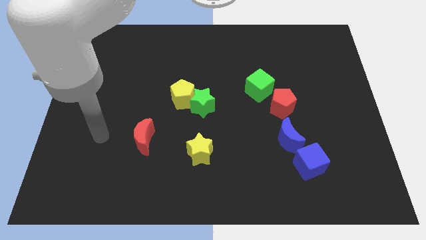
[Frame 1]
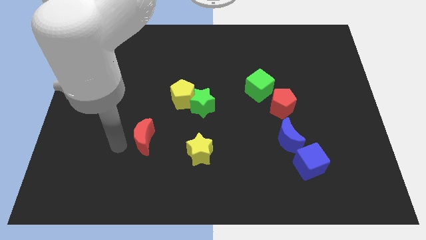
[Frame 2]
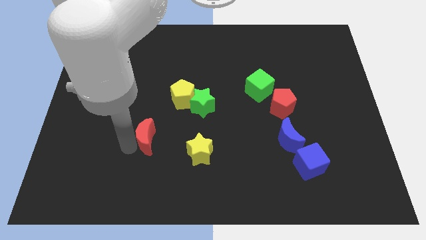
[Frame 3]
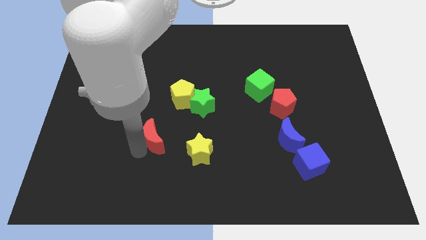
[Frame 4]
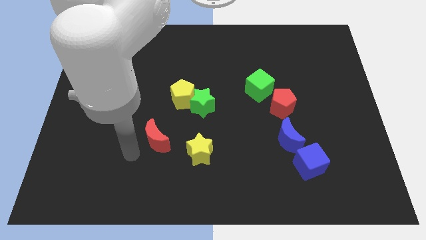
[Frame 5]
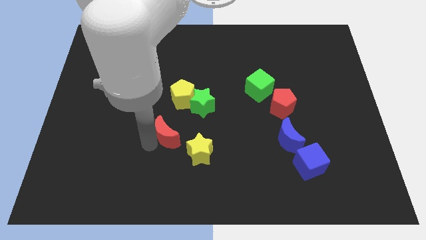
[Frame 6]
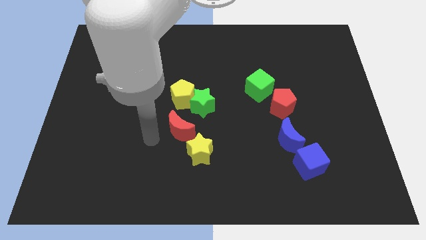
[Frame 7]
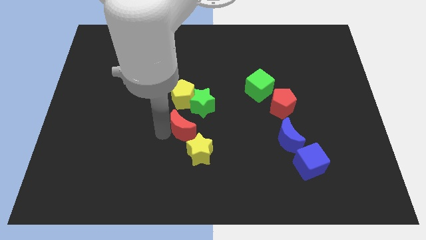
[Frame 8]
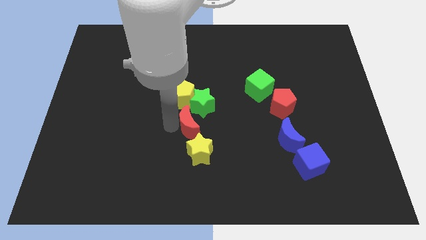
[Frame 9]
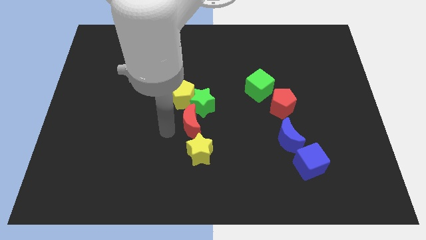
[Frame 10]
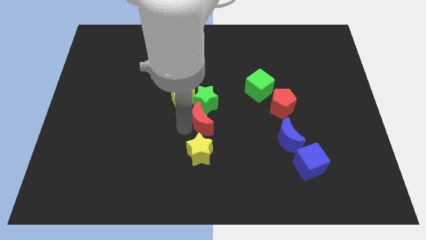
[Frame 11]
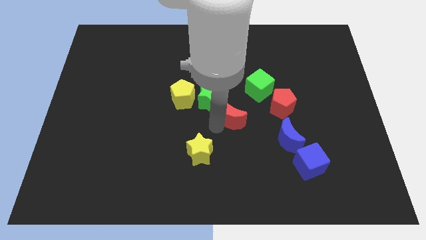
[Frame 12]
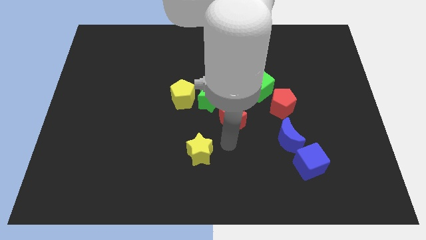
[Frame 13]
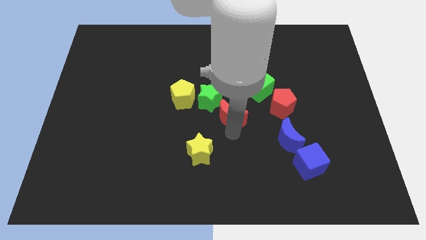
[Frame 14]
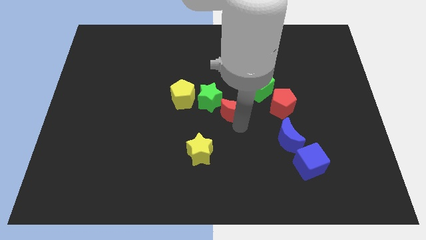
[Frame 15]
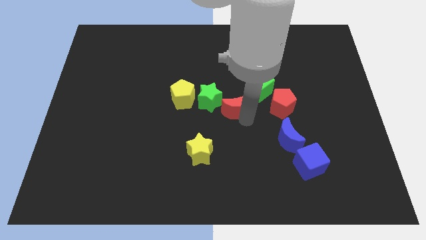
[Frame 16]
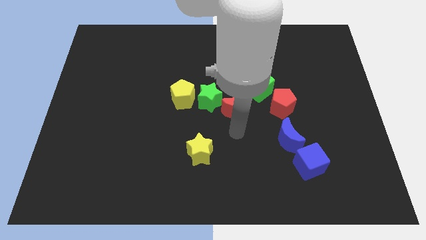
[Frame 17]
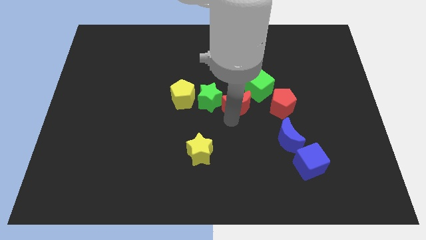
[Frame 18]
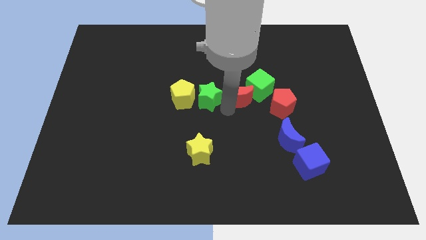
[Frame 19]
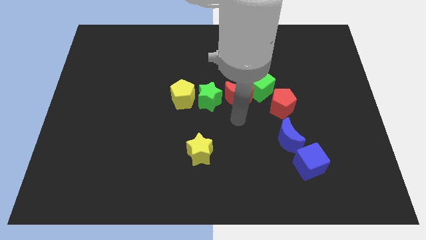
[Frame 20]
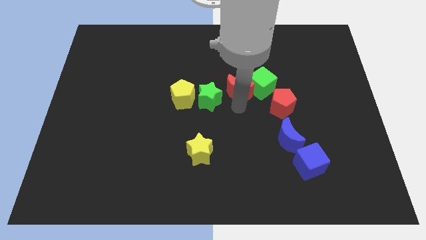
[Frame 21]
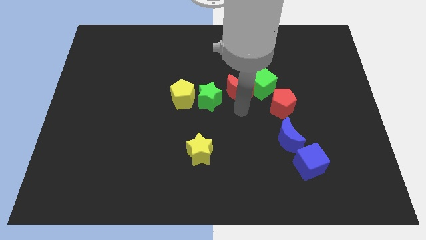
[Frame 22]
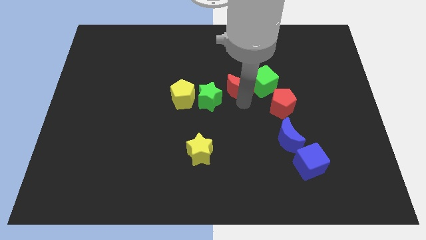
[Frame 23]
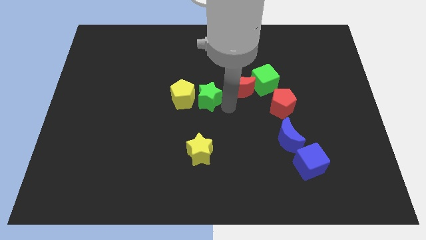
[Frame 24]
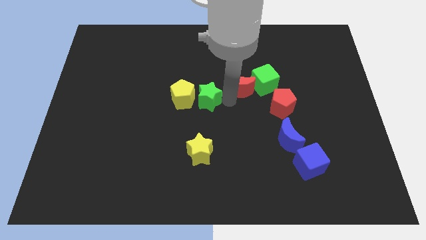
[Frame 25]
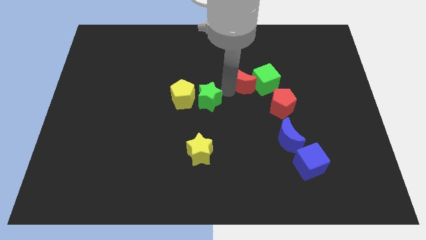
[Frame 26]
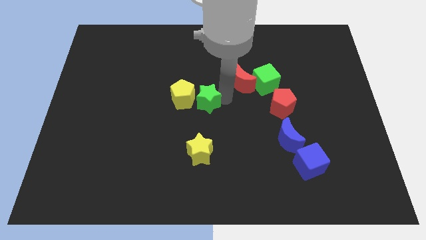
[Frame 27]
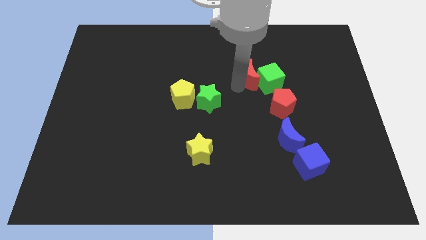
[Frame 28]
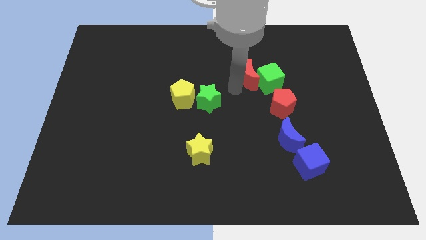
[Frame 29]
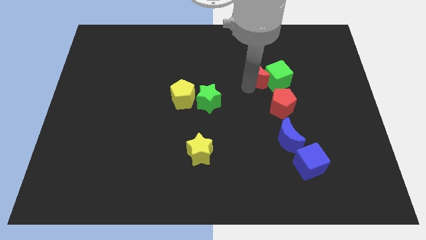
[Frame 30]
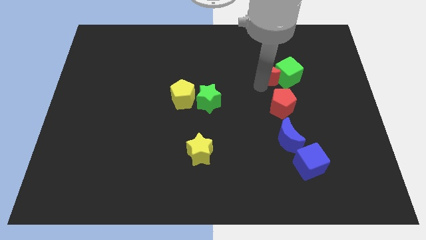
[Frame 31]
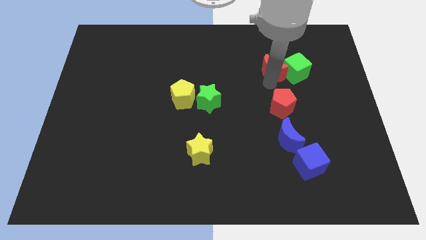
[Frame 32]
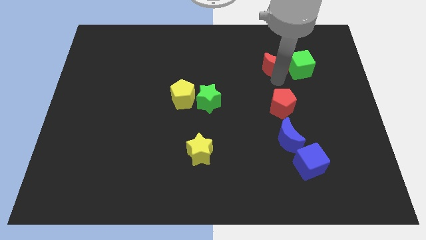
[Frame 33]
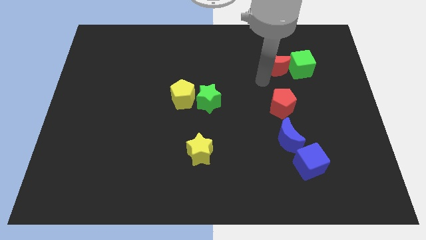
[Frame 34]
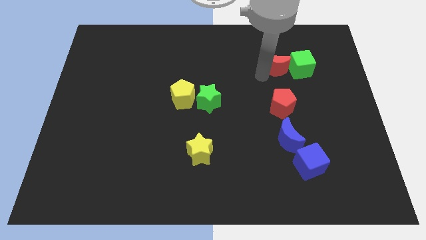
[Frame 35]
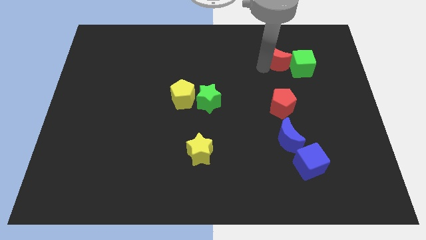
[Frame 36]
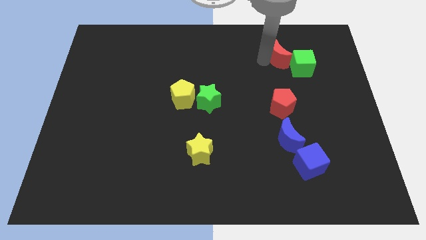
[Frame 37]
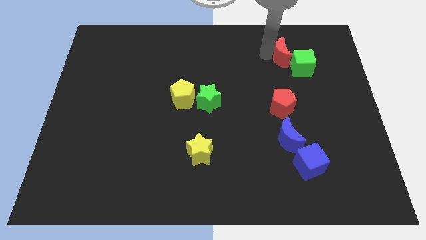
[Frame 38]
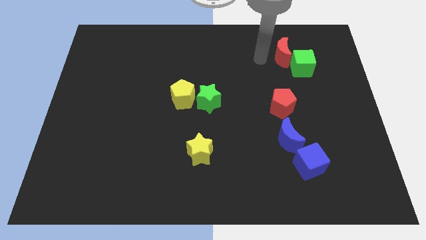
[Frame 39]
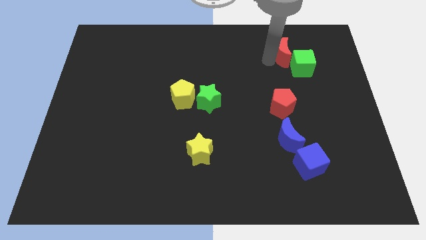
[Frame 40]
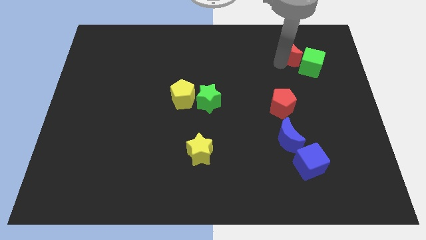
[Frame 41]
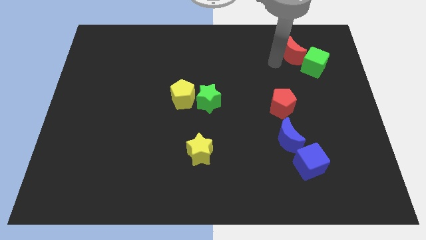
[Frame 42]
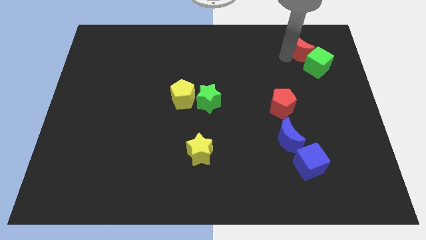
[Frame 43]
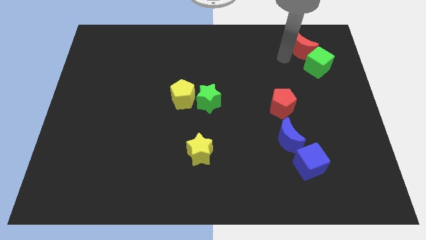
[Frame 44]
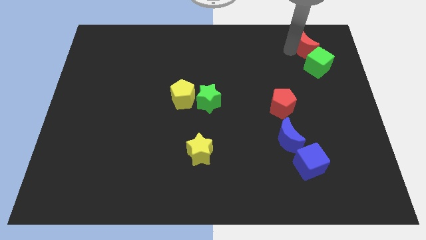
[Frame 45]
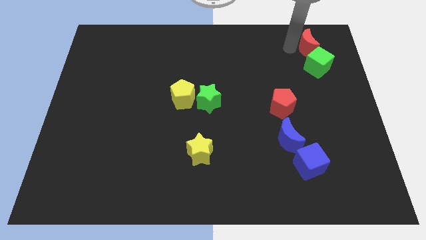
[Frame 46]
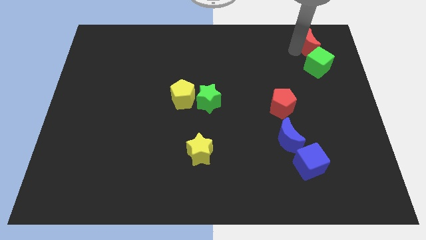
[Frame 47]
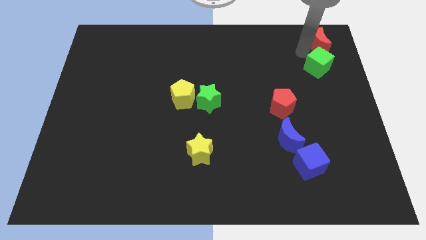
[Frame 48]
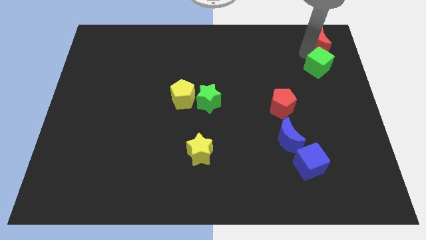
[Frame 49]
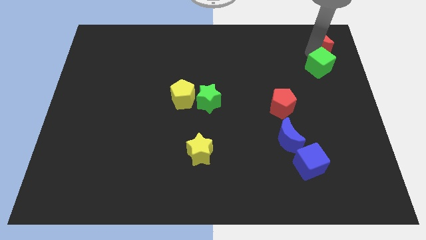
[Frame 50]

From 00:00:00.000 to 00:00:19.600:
push the red moon to the top right of the board
